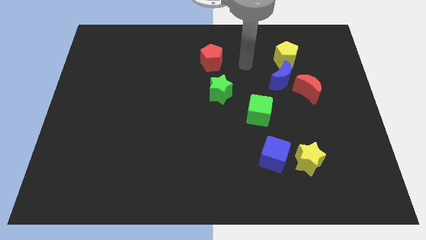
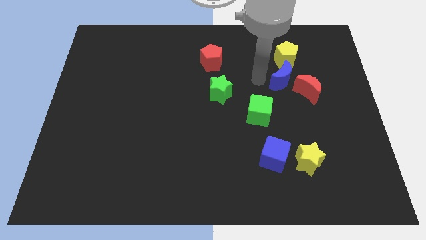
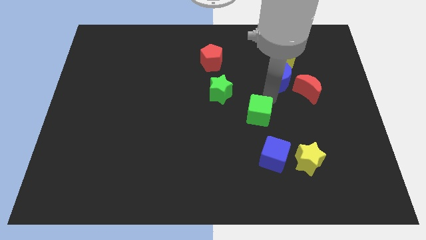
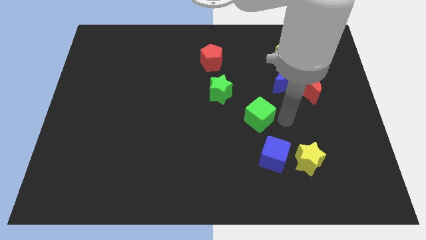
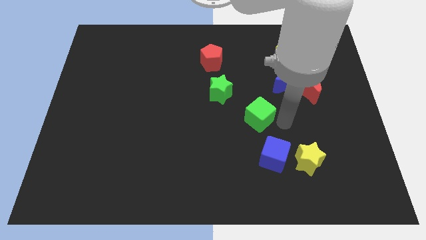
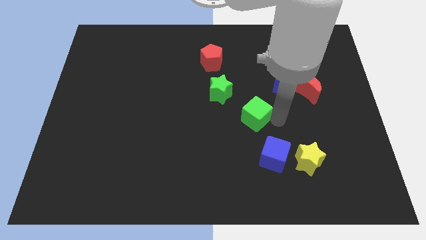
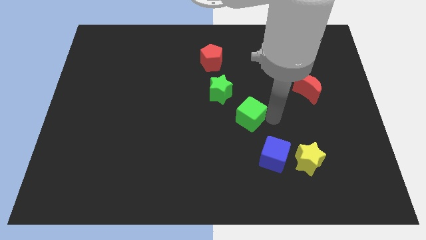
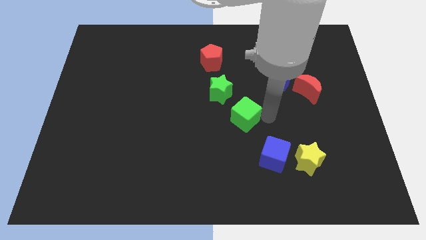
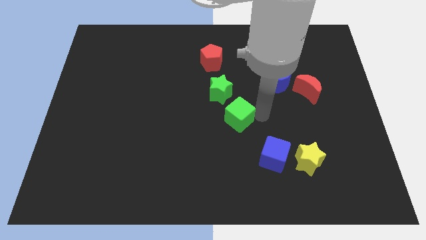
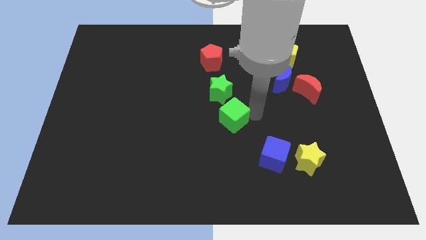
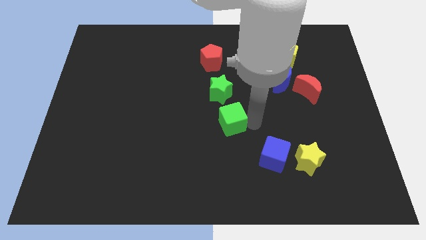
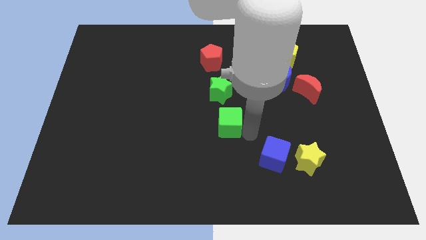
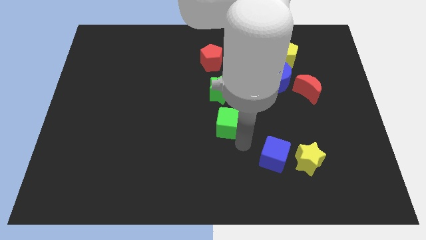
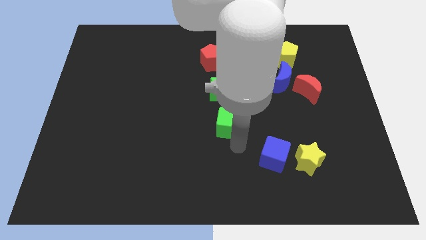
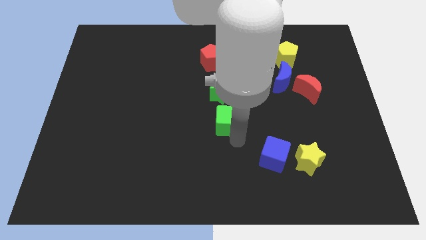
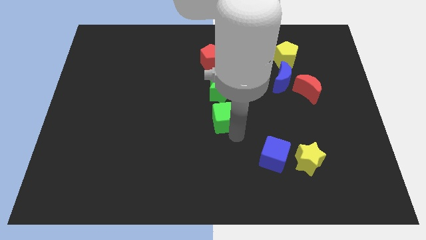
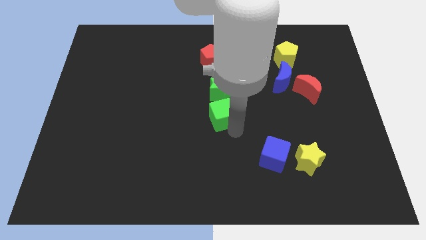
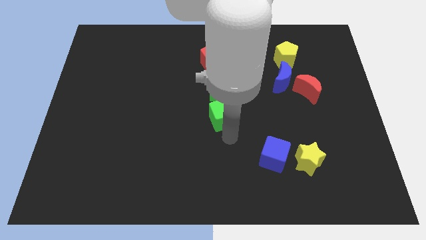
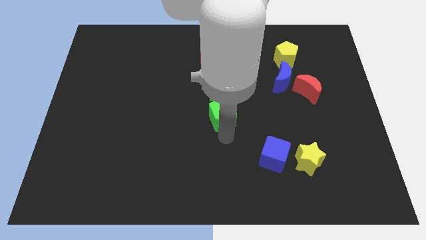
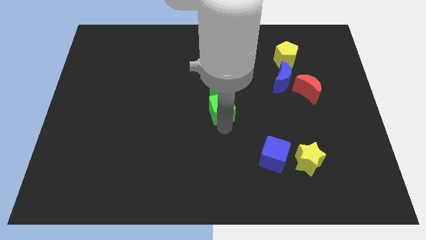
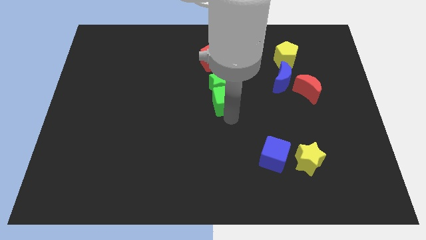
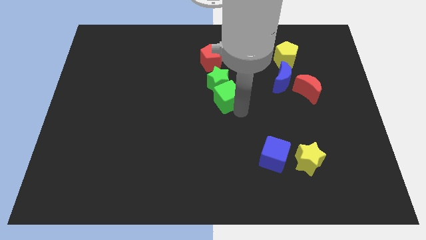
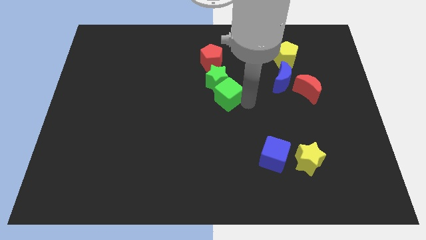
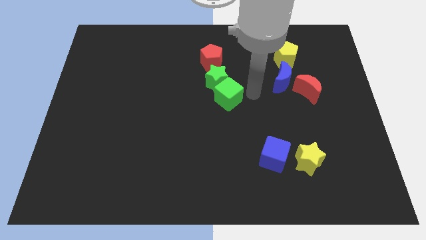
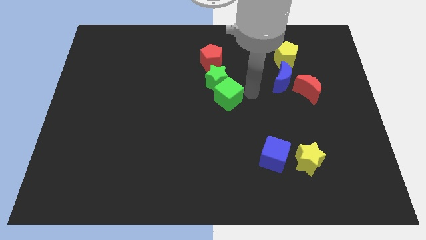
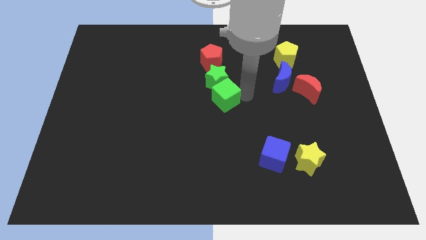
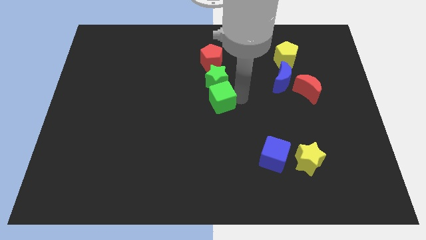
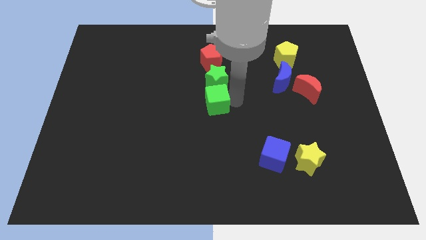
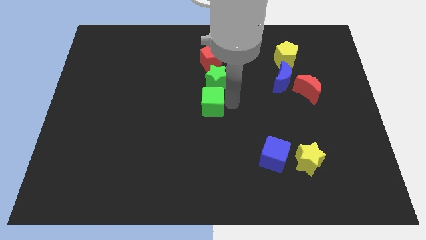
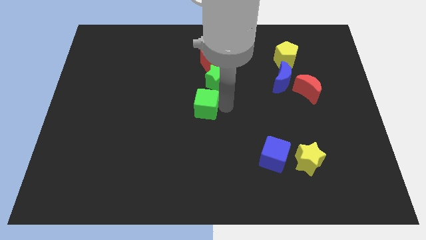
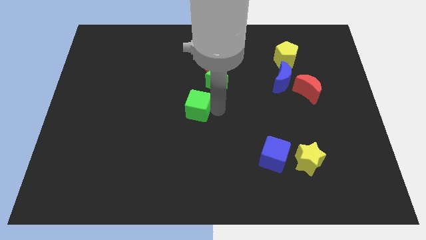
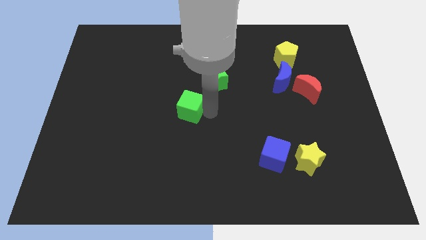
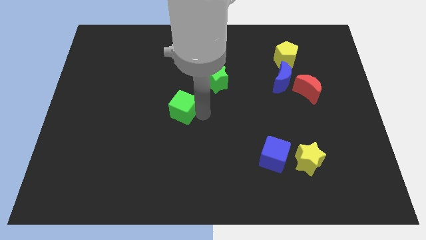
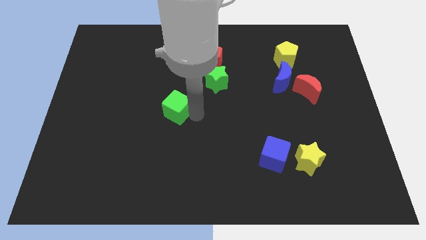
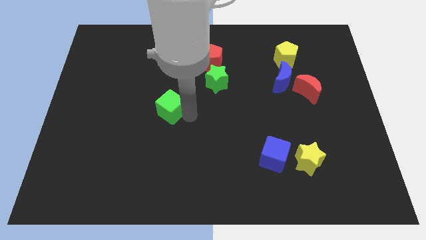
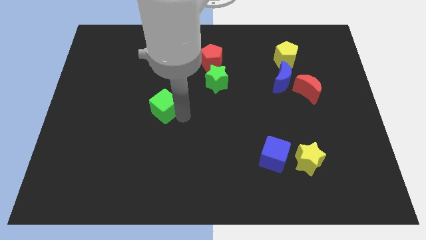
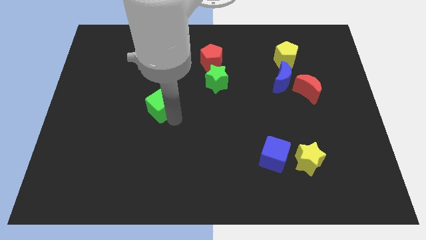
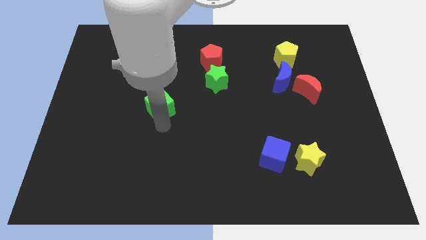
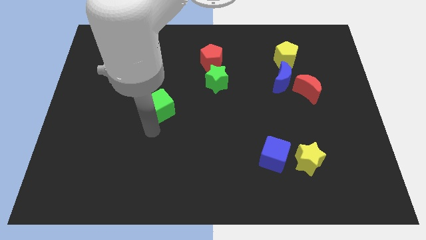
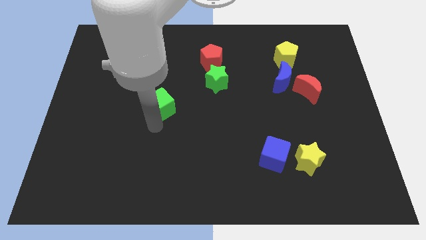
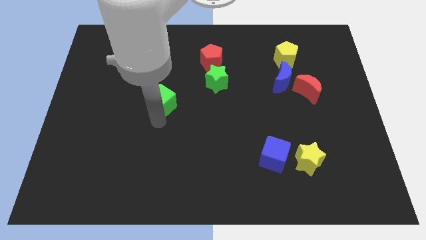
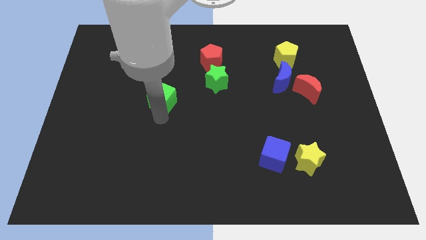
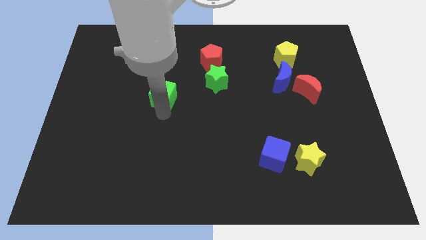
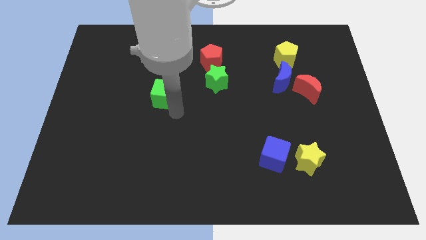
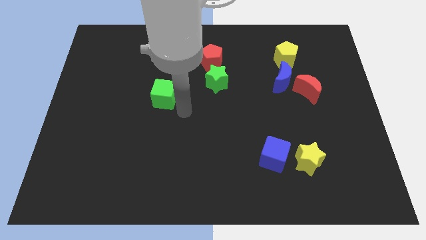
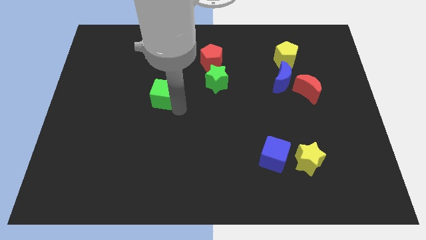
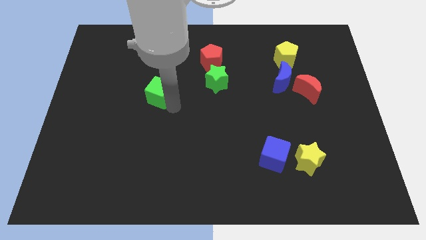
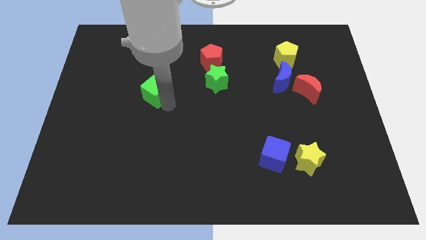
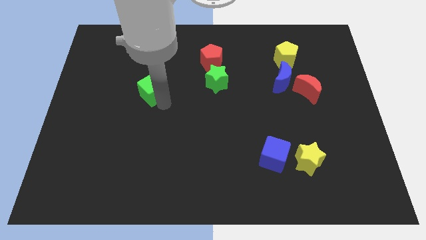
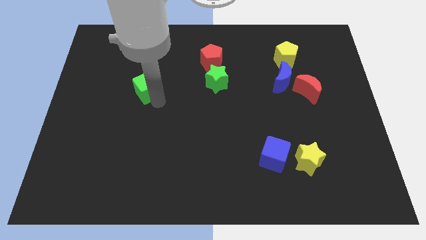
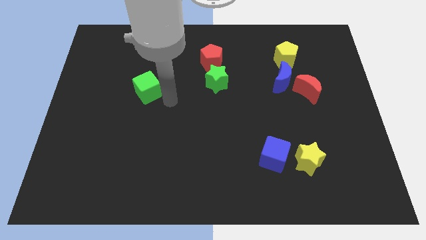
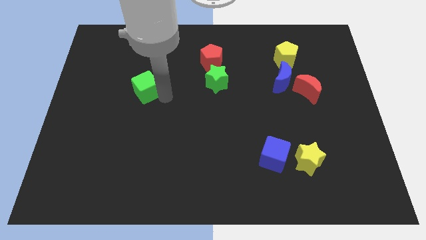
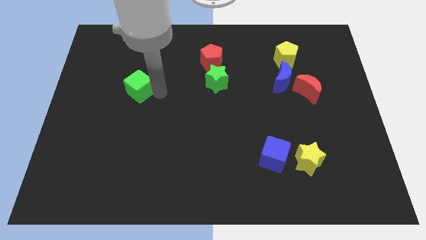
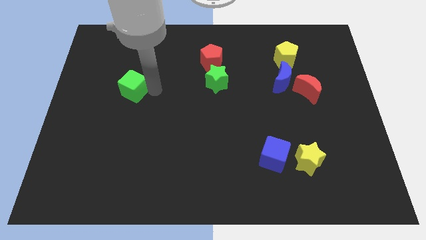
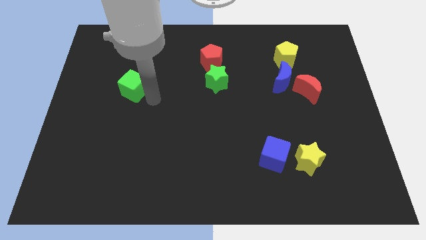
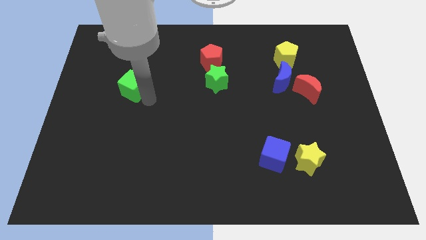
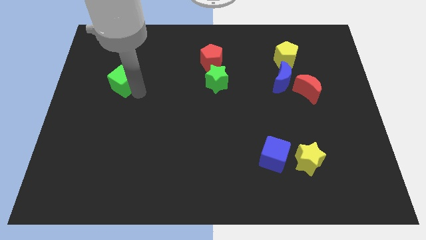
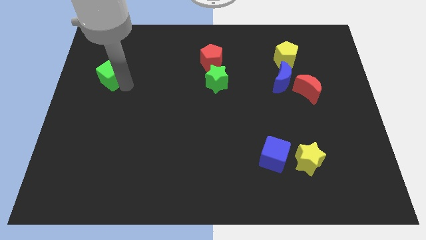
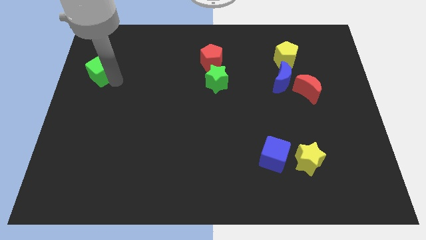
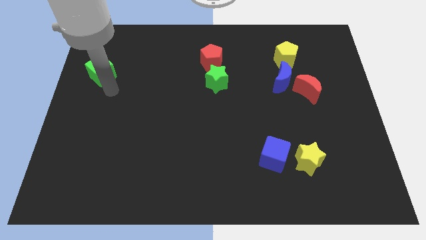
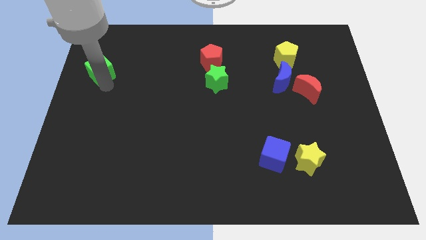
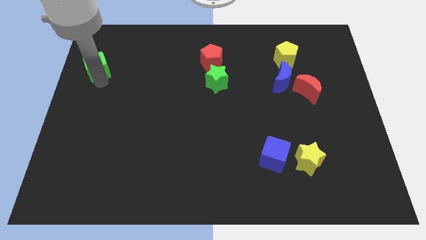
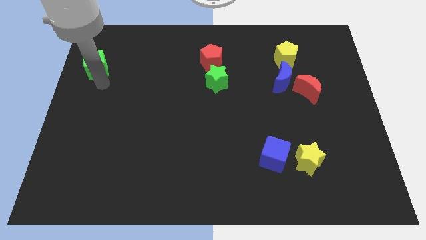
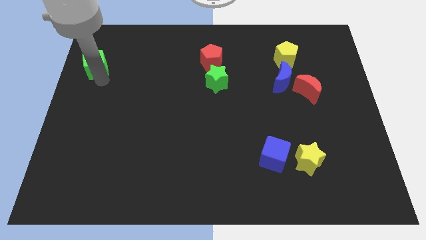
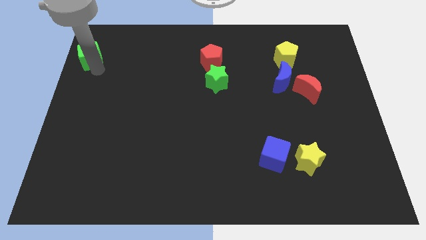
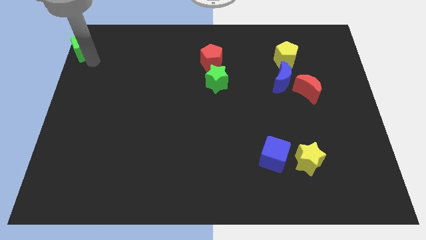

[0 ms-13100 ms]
move the green cube to the upper left corner

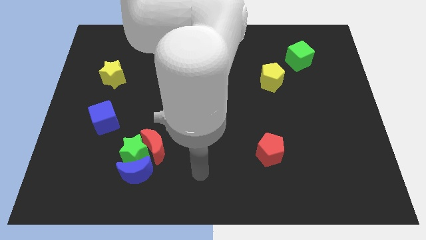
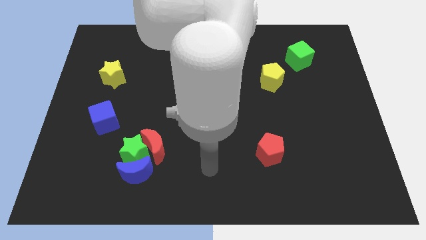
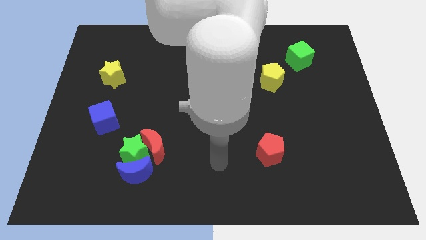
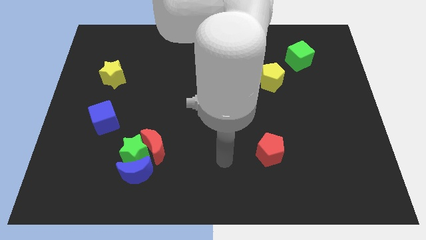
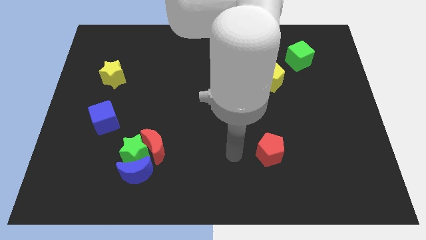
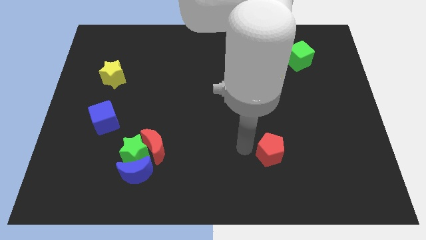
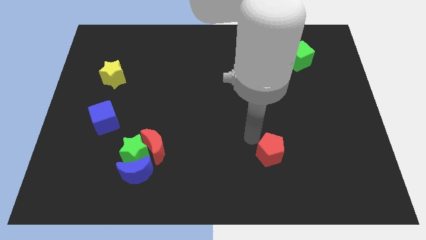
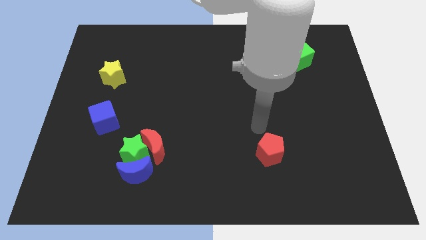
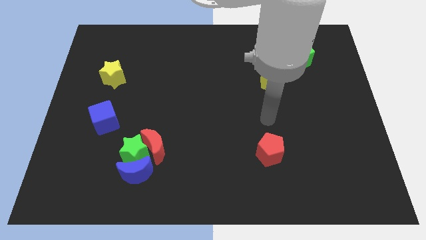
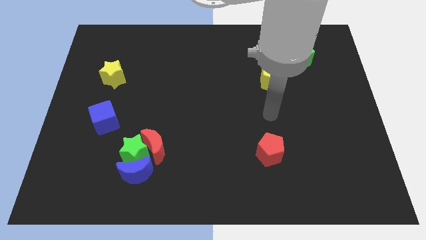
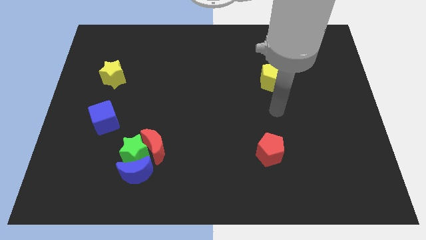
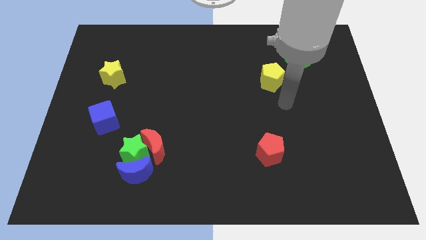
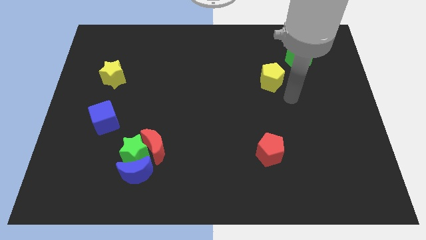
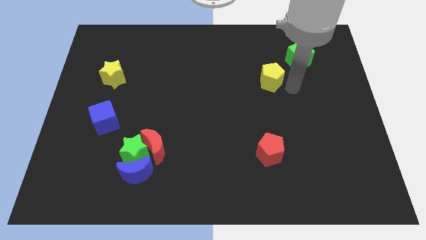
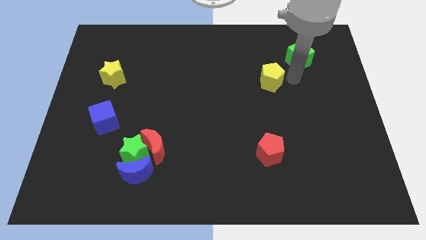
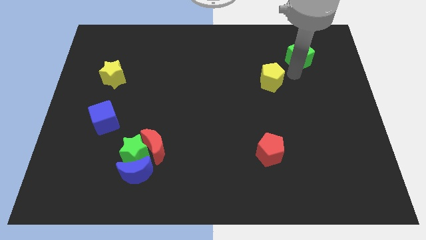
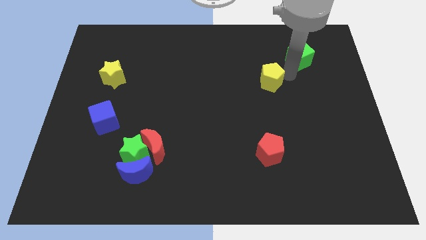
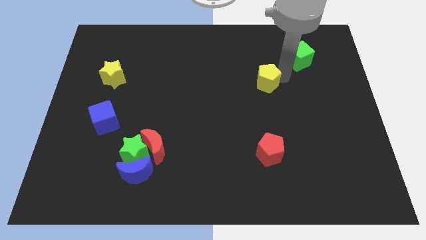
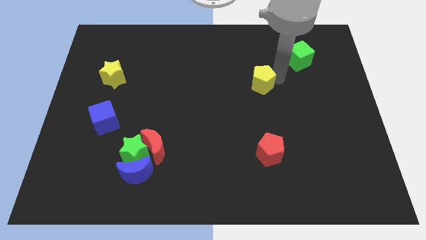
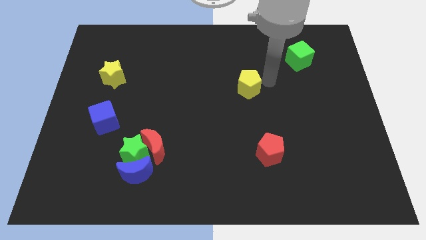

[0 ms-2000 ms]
move the yellow pentagon to the middle
